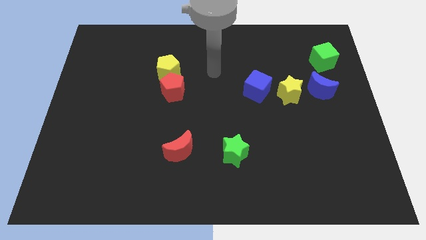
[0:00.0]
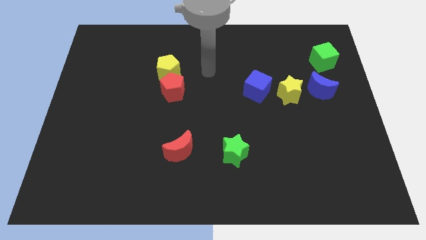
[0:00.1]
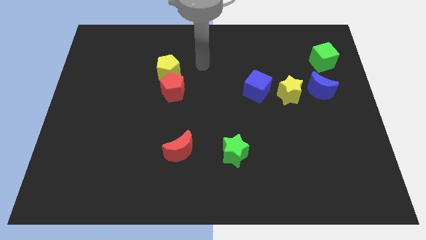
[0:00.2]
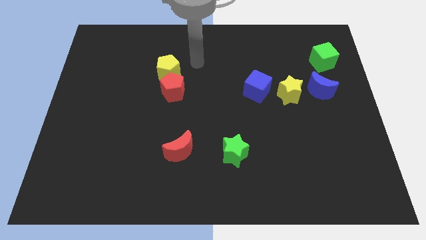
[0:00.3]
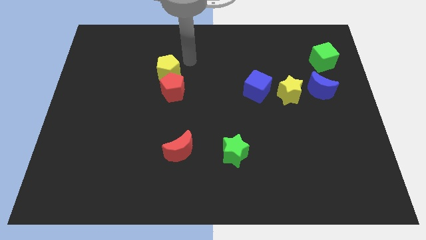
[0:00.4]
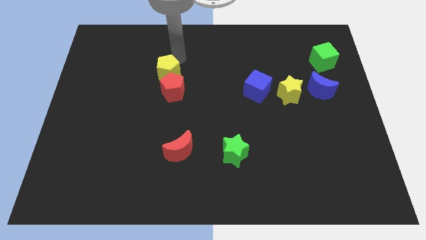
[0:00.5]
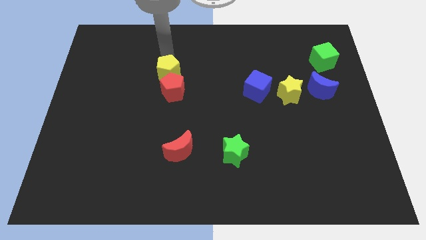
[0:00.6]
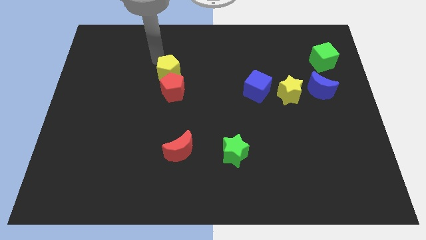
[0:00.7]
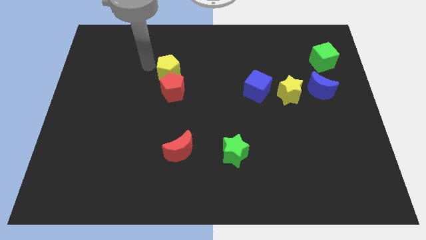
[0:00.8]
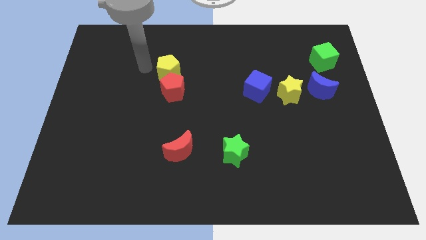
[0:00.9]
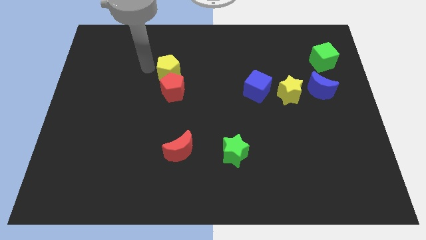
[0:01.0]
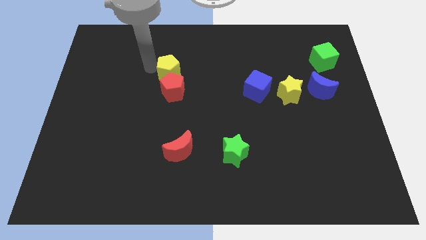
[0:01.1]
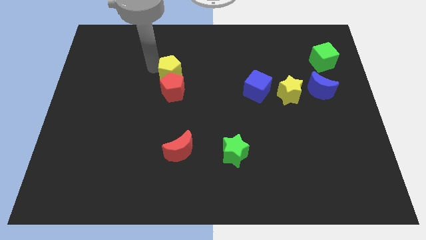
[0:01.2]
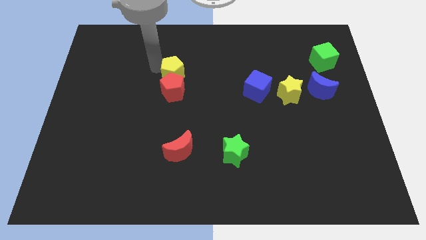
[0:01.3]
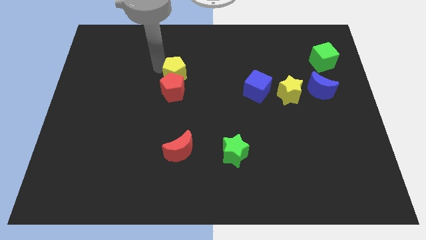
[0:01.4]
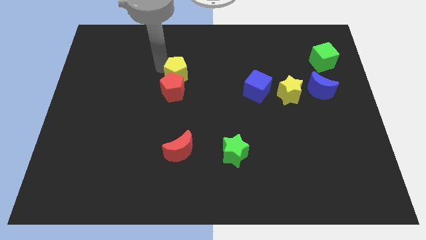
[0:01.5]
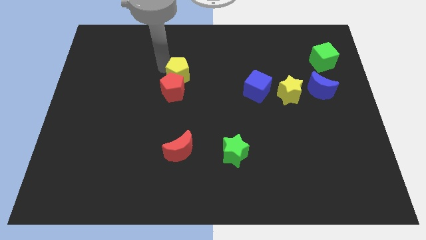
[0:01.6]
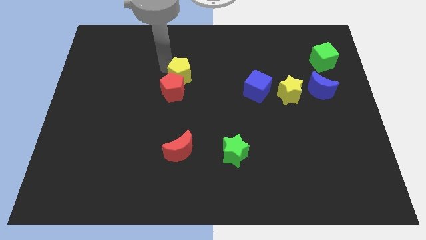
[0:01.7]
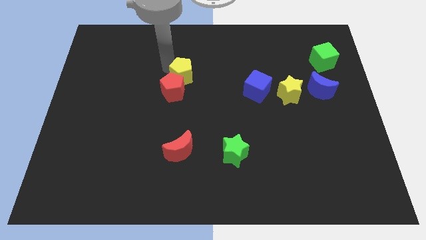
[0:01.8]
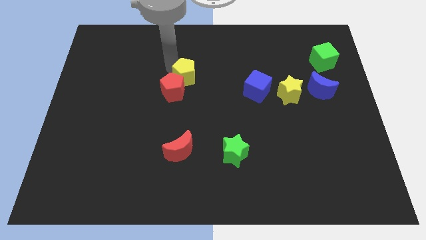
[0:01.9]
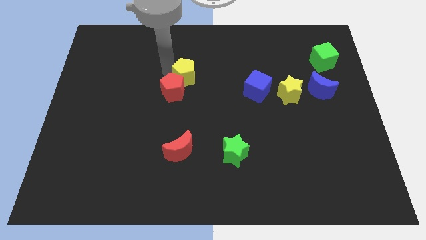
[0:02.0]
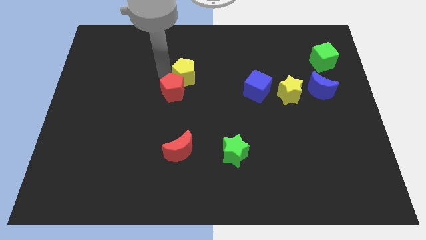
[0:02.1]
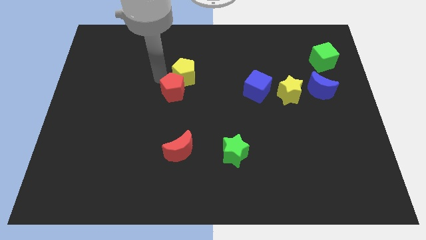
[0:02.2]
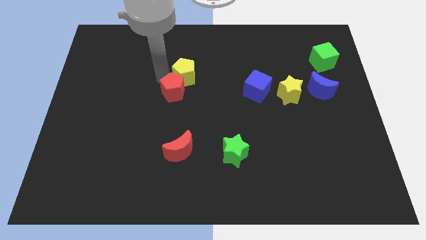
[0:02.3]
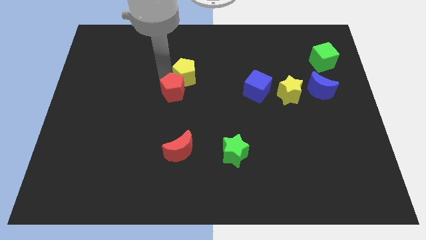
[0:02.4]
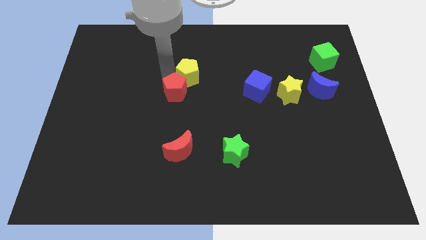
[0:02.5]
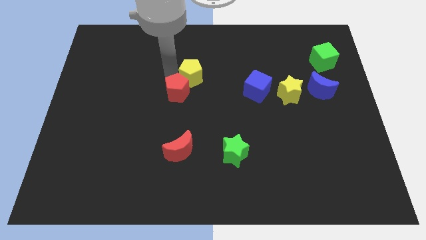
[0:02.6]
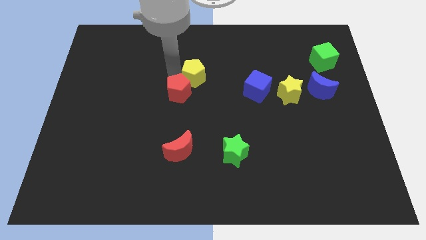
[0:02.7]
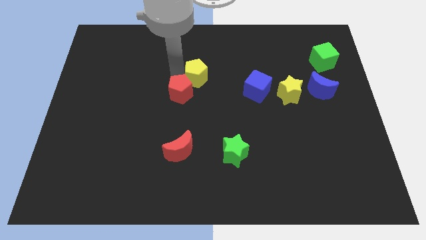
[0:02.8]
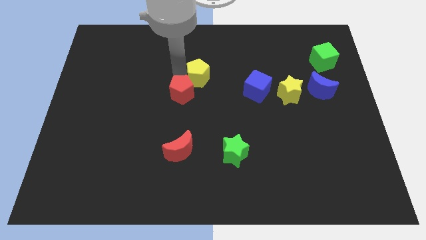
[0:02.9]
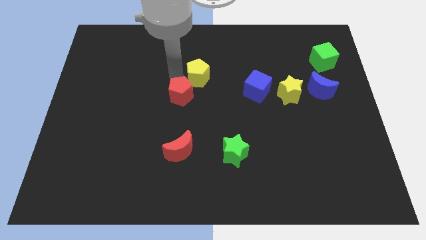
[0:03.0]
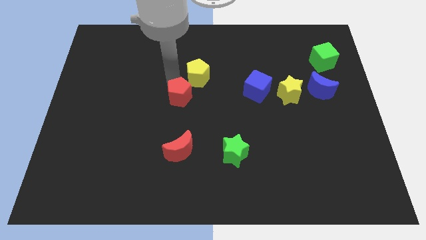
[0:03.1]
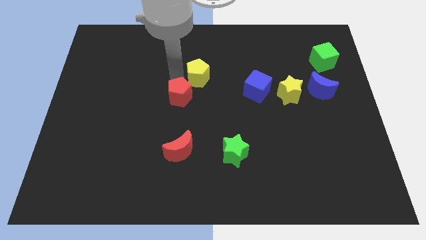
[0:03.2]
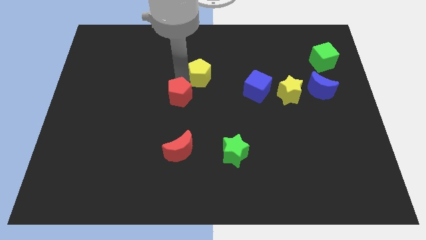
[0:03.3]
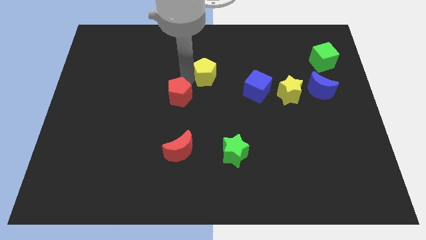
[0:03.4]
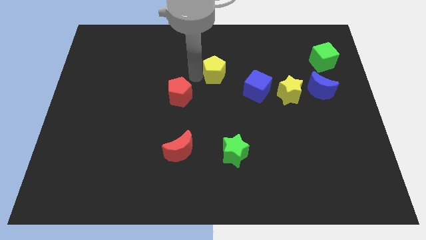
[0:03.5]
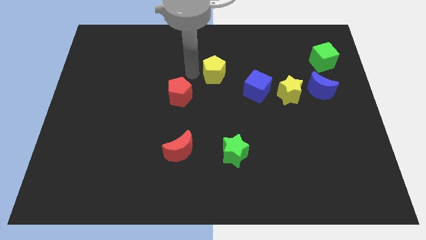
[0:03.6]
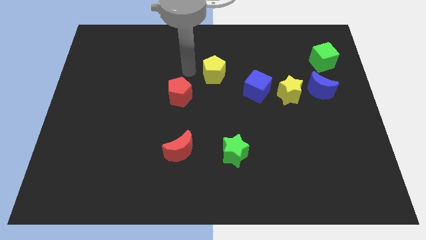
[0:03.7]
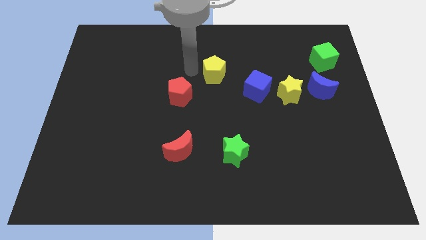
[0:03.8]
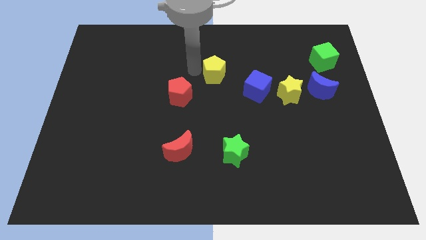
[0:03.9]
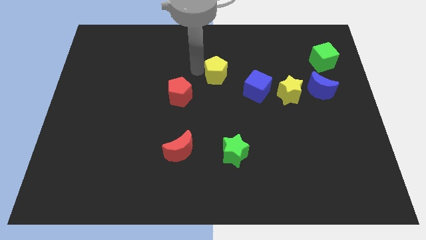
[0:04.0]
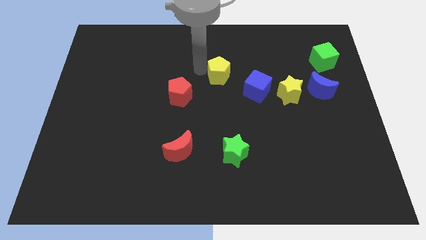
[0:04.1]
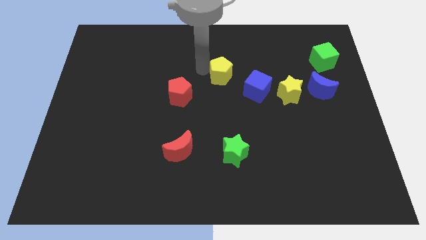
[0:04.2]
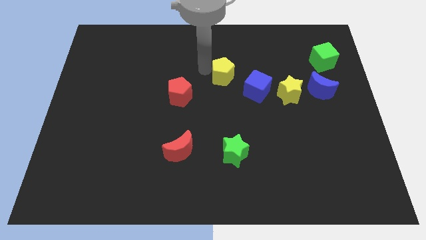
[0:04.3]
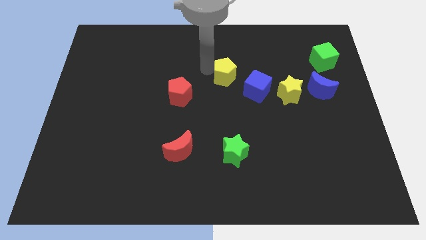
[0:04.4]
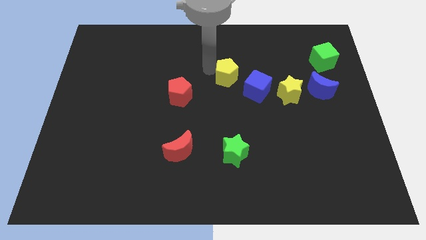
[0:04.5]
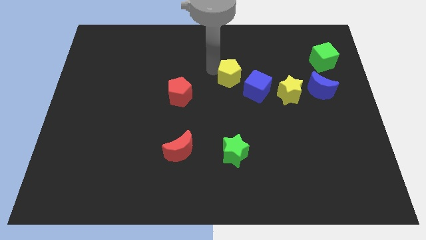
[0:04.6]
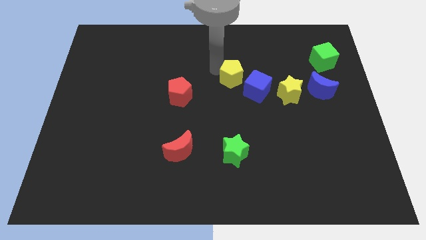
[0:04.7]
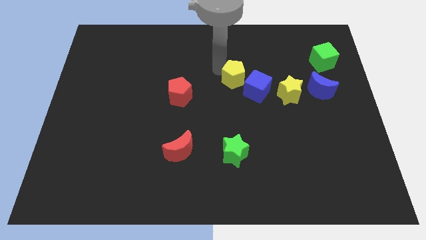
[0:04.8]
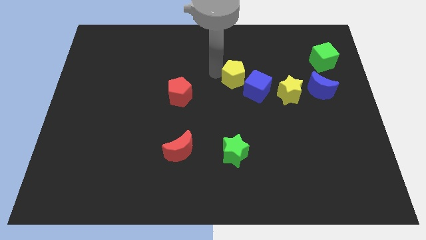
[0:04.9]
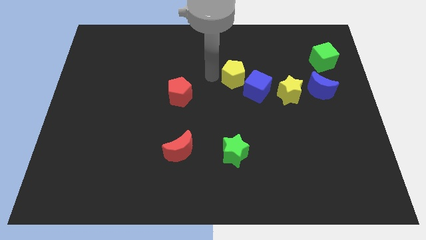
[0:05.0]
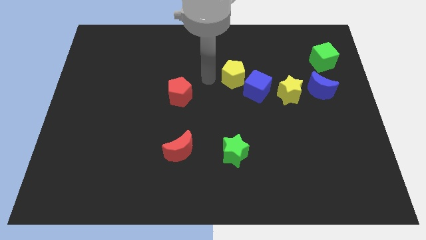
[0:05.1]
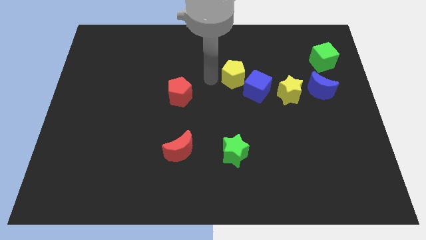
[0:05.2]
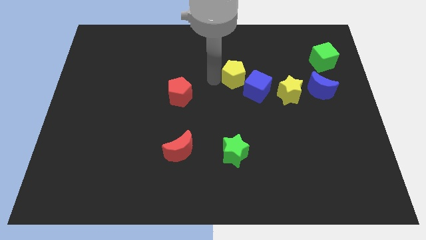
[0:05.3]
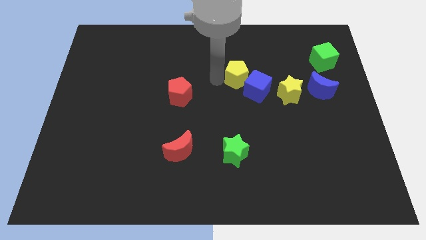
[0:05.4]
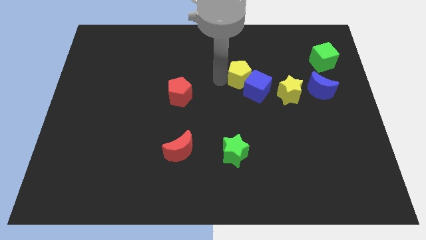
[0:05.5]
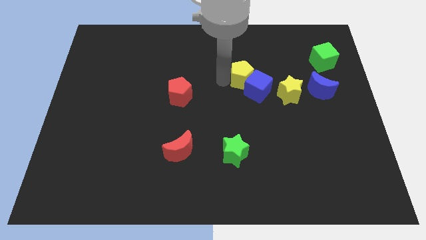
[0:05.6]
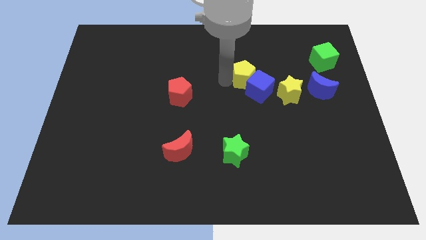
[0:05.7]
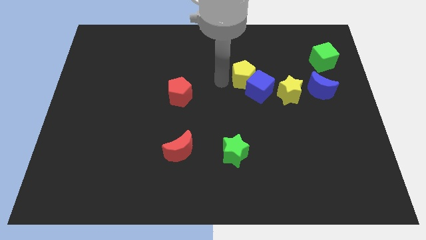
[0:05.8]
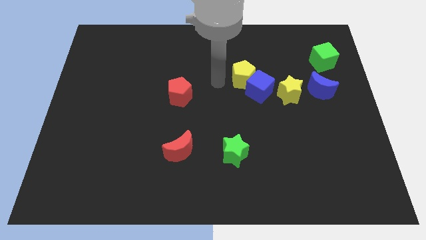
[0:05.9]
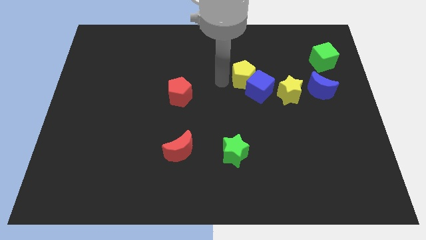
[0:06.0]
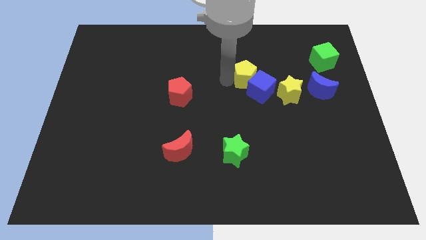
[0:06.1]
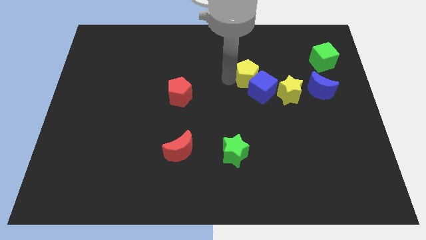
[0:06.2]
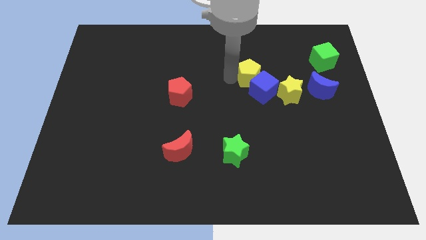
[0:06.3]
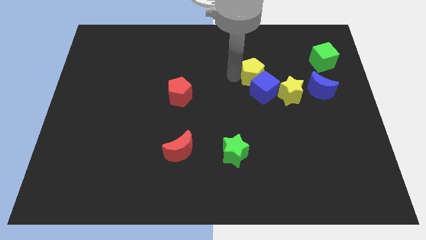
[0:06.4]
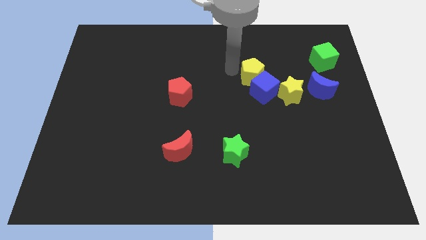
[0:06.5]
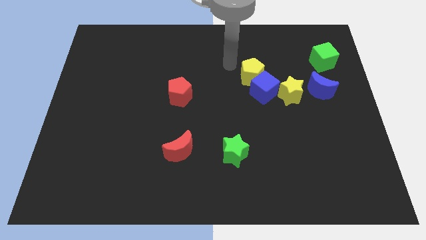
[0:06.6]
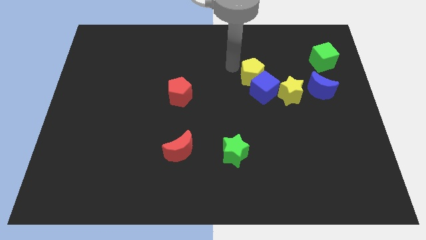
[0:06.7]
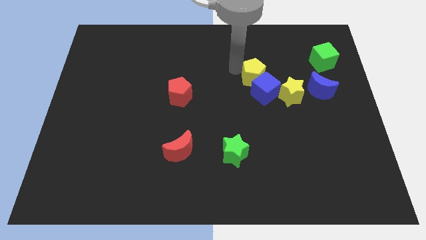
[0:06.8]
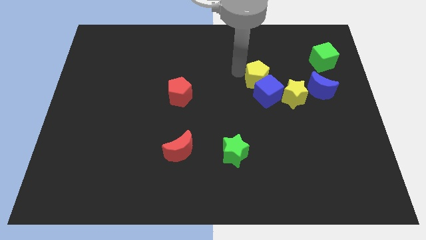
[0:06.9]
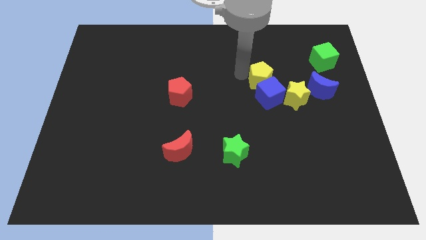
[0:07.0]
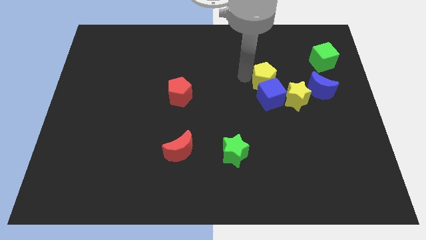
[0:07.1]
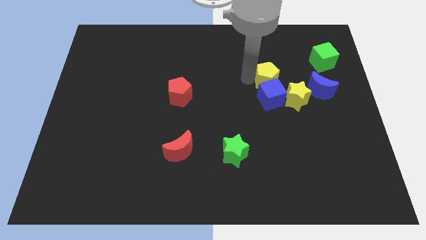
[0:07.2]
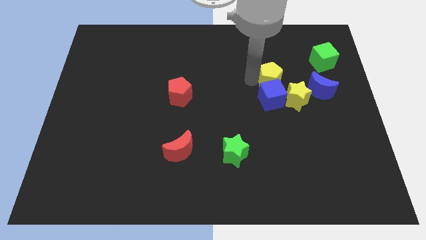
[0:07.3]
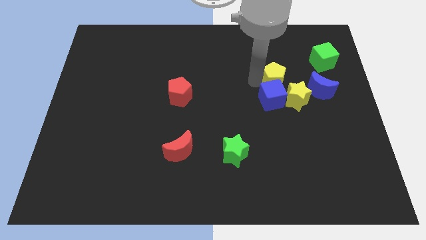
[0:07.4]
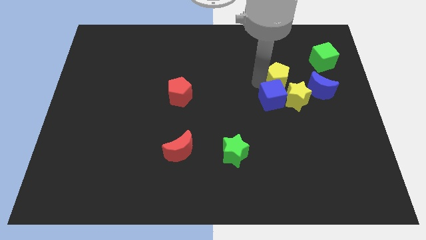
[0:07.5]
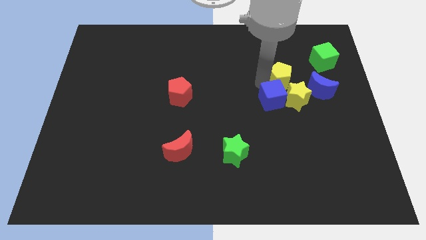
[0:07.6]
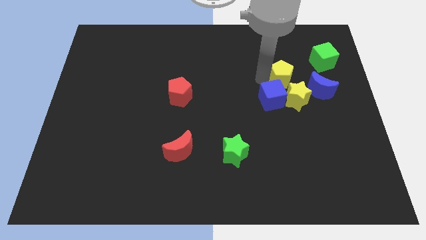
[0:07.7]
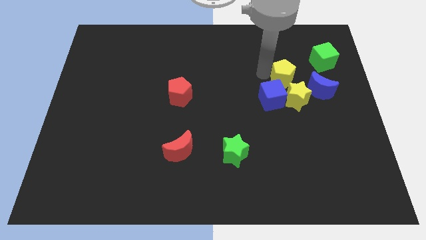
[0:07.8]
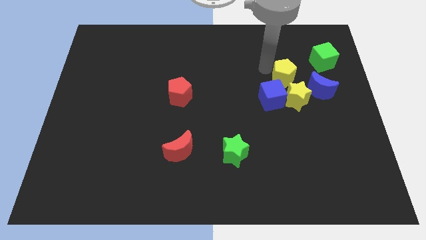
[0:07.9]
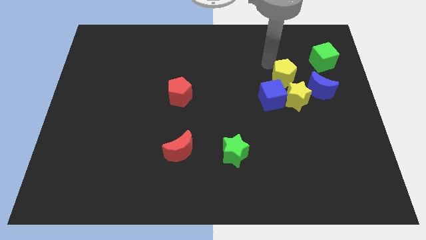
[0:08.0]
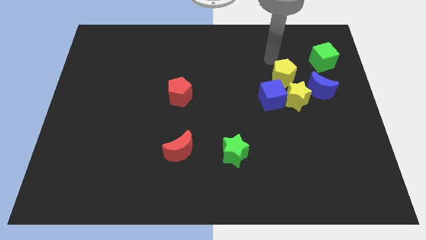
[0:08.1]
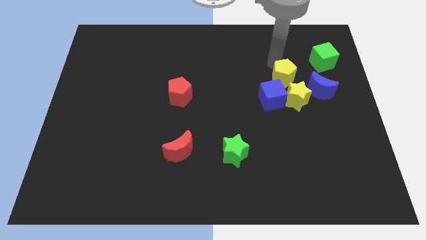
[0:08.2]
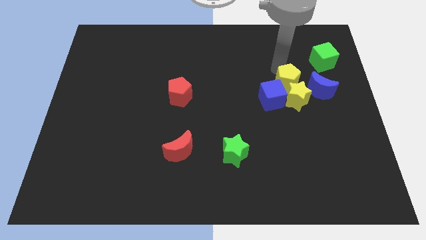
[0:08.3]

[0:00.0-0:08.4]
slide the yellow pentagon towards the yellow star
